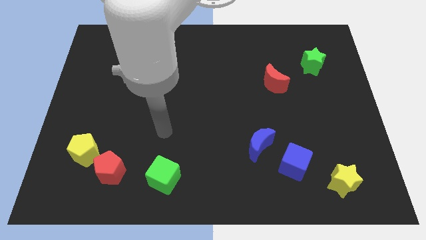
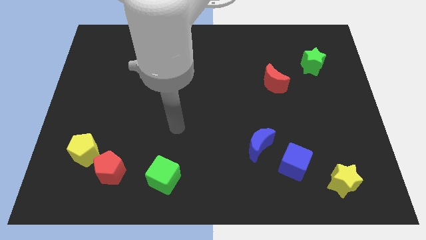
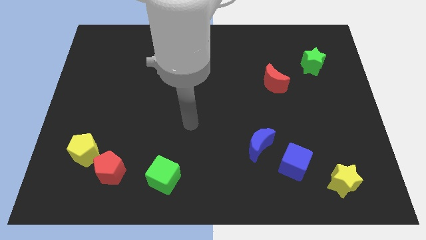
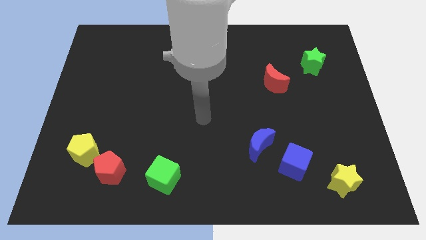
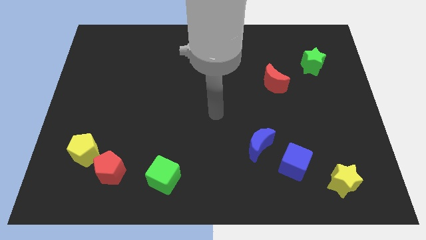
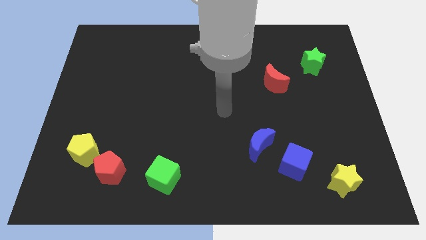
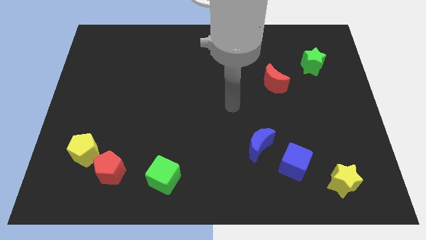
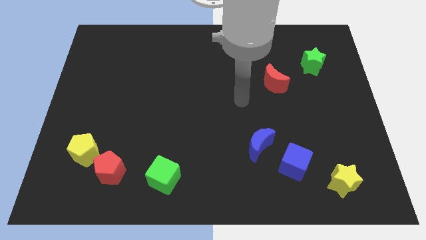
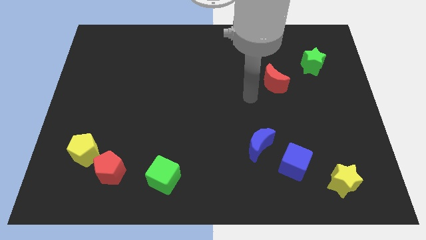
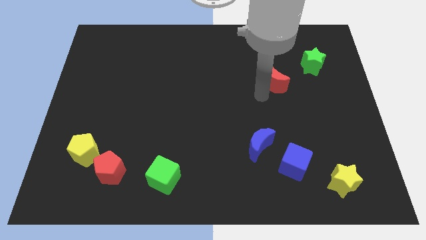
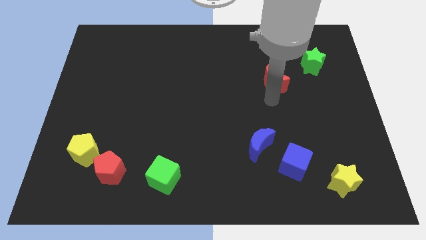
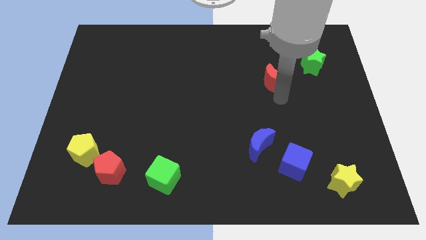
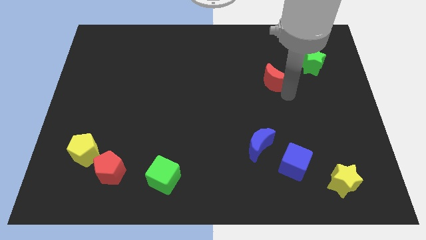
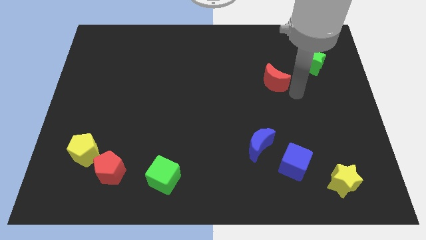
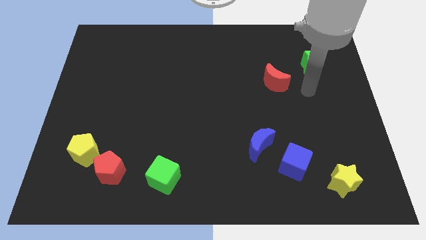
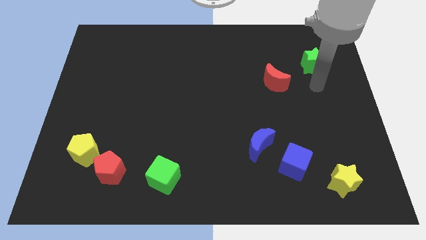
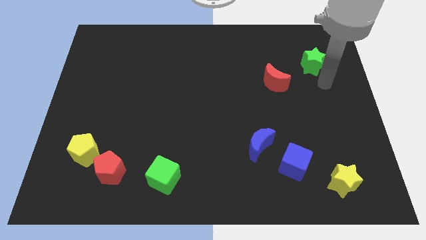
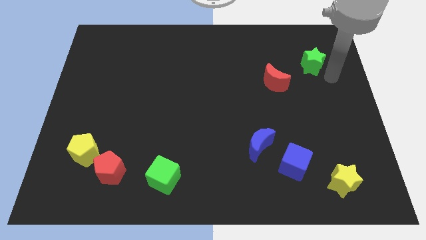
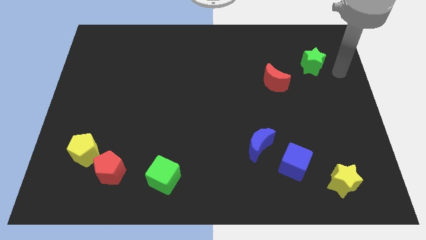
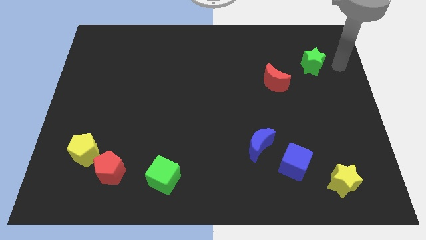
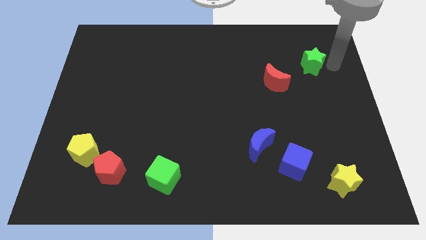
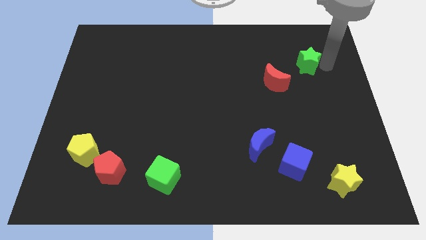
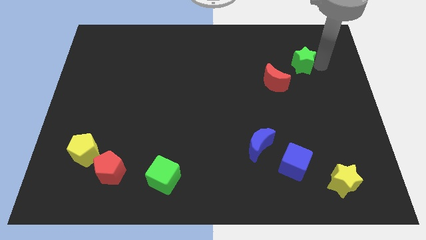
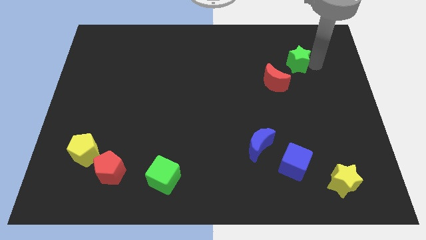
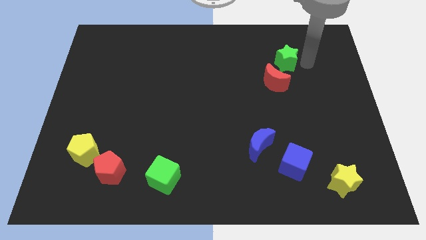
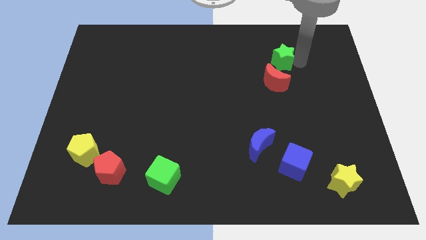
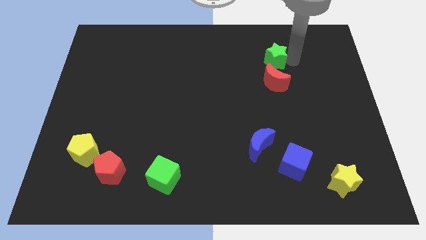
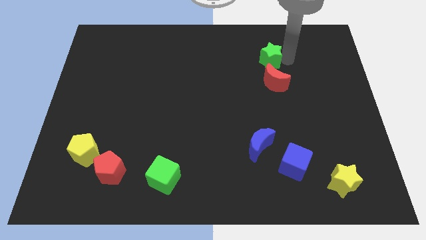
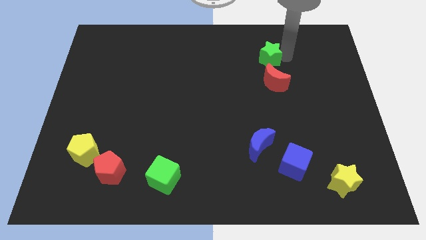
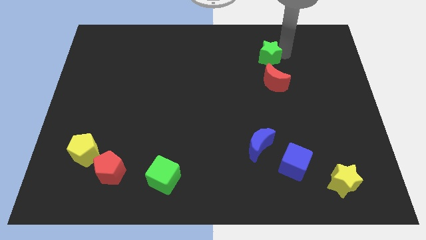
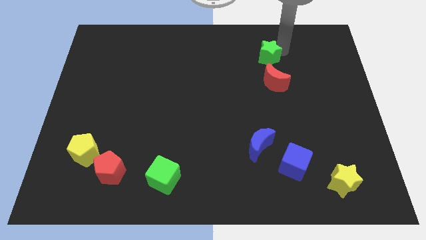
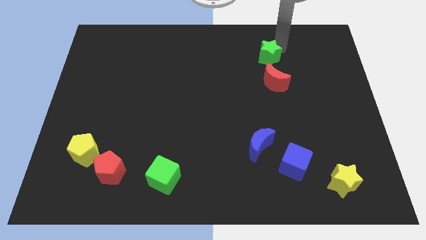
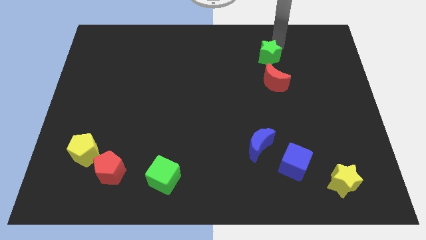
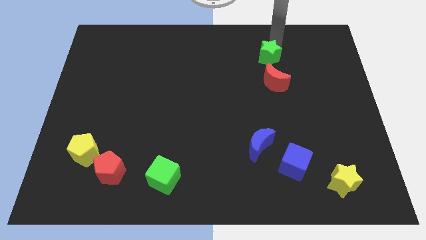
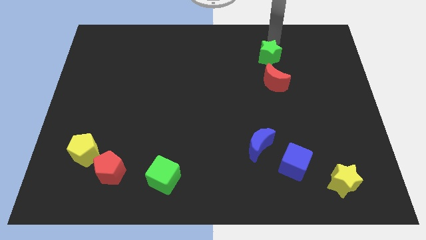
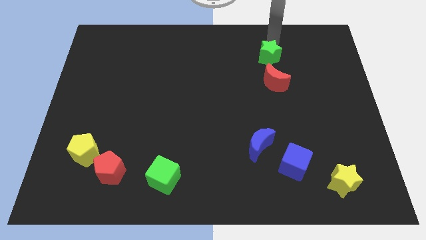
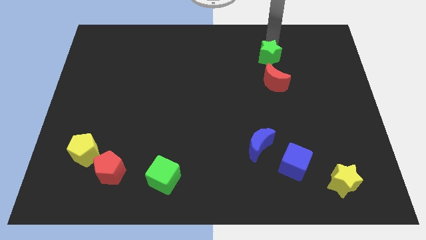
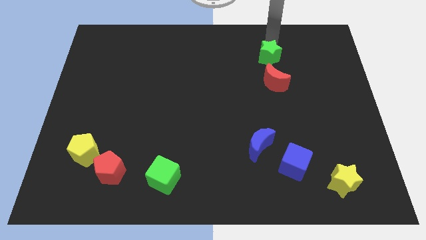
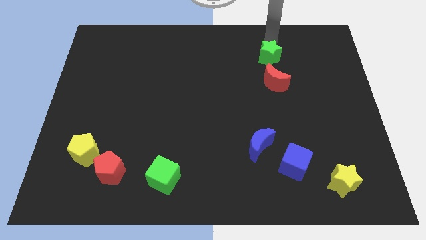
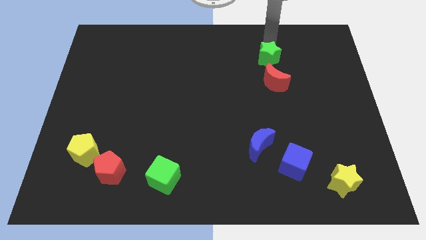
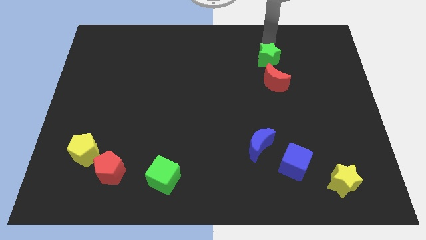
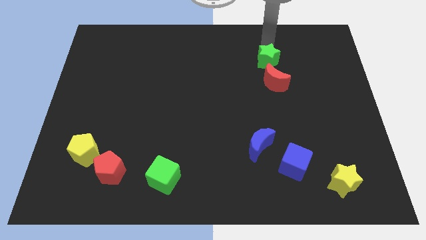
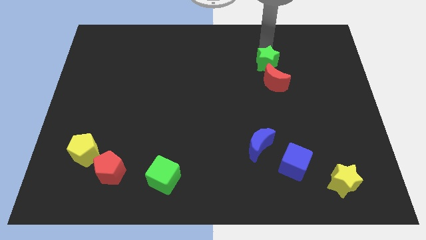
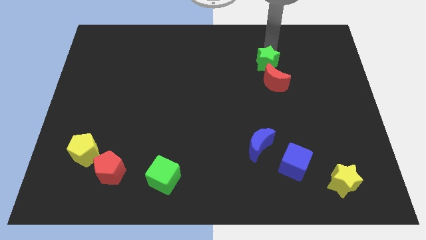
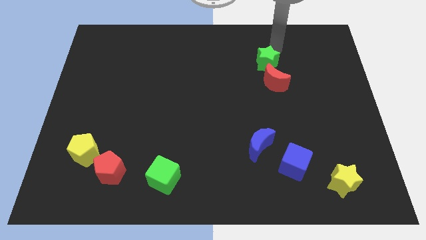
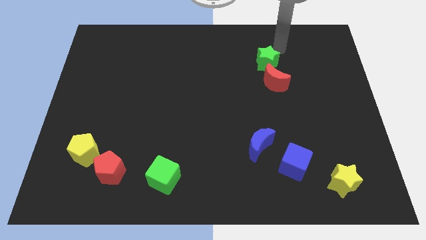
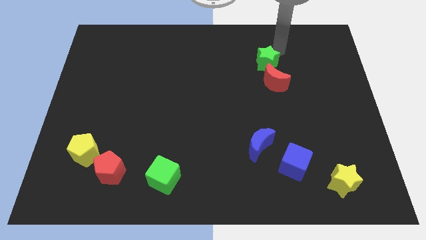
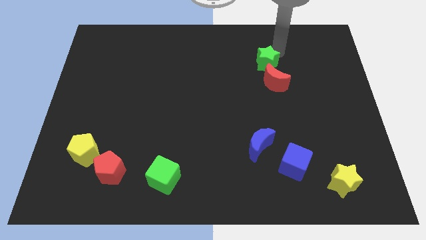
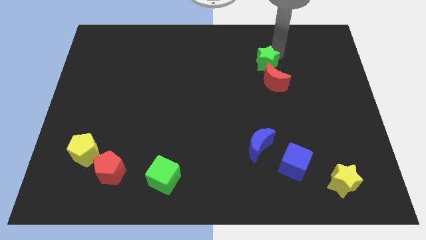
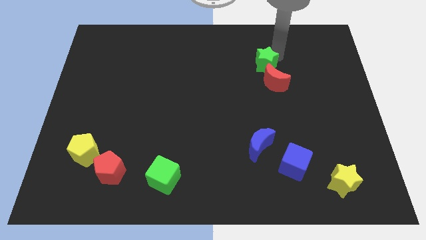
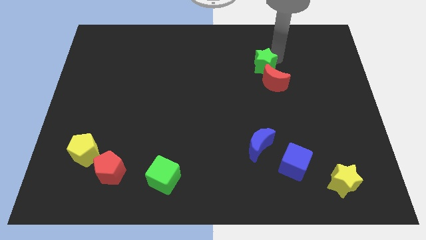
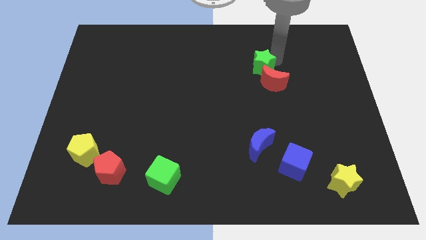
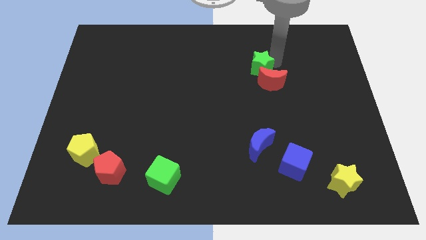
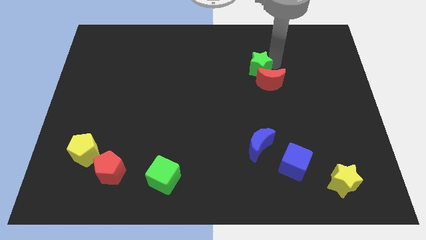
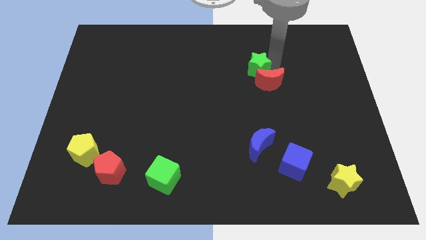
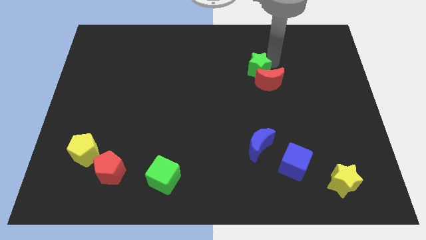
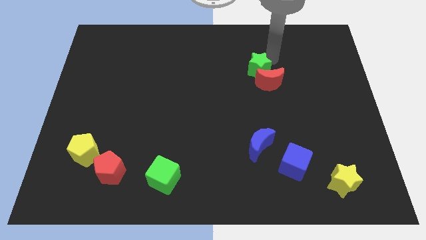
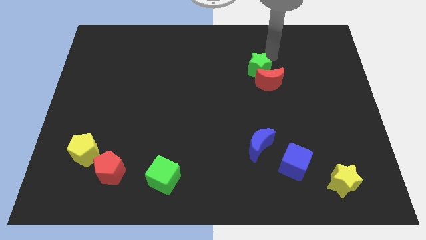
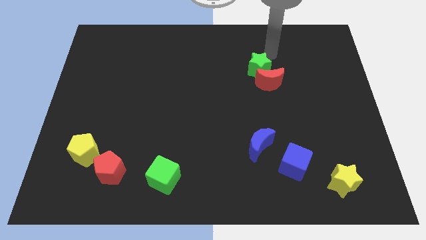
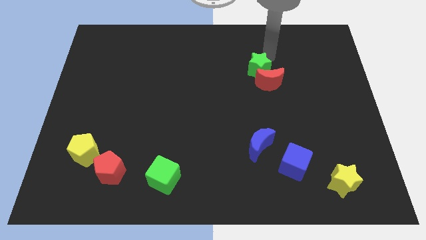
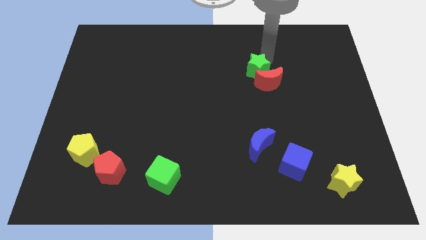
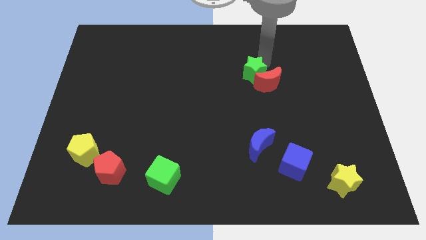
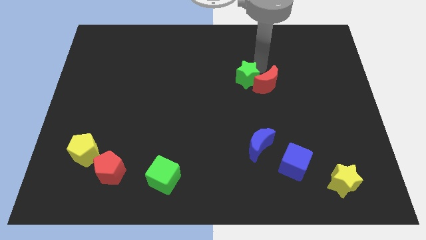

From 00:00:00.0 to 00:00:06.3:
put the green star to the center of the board
